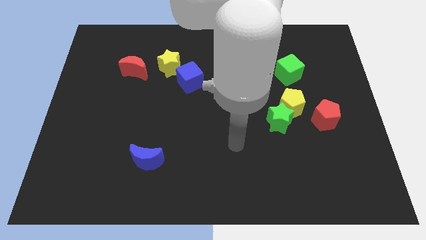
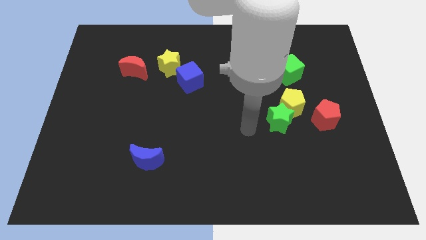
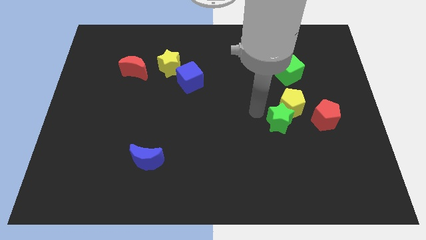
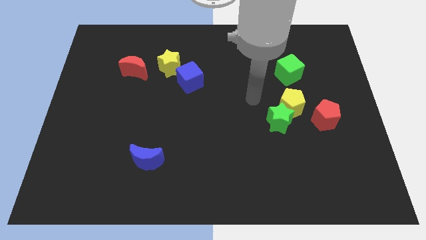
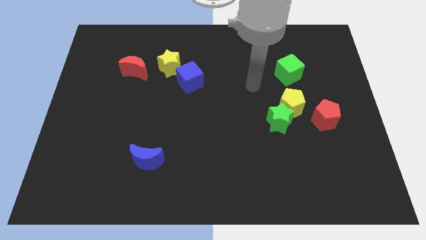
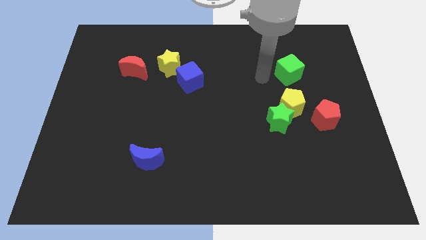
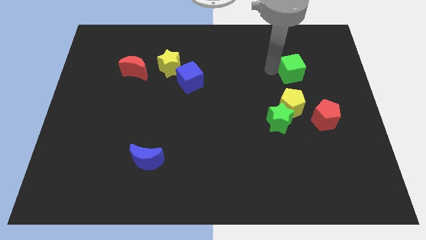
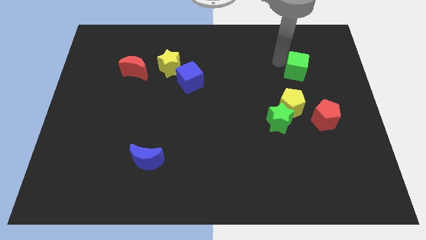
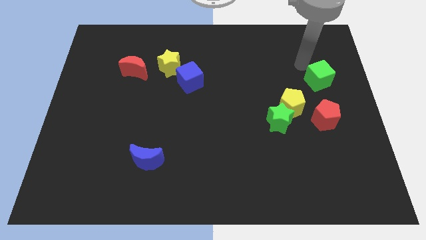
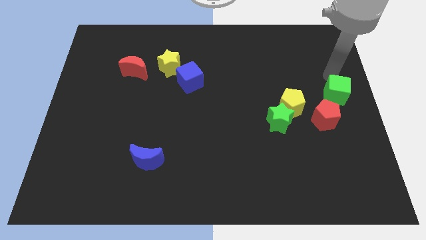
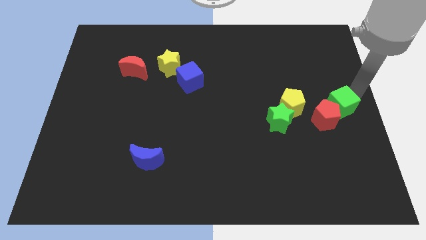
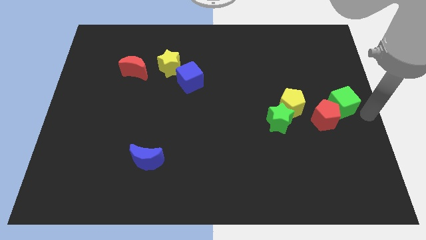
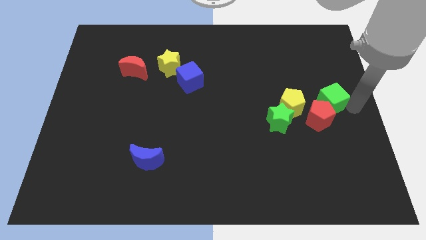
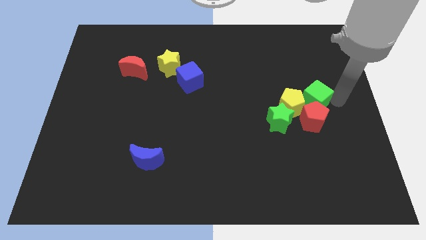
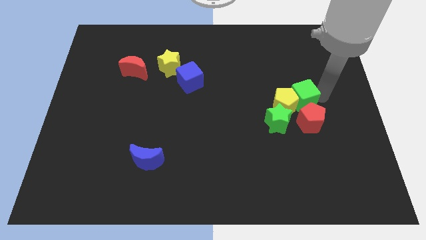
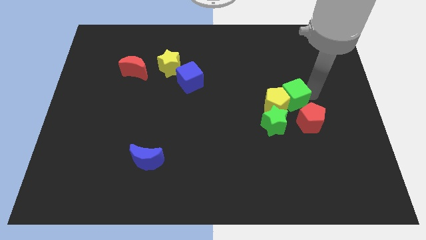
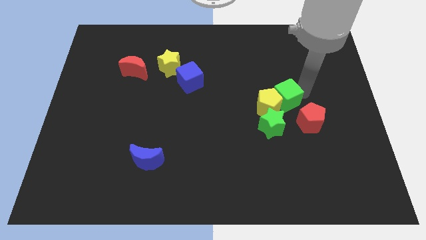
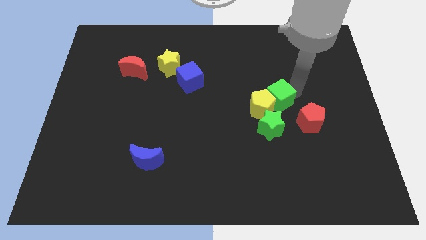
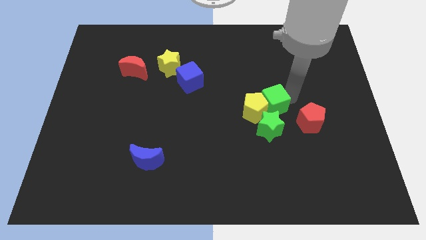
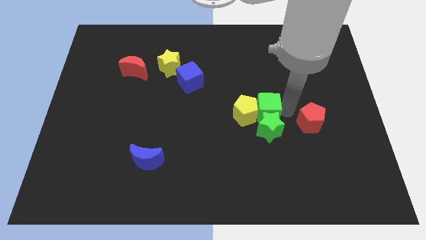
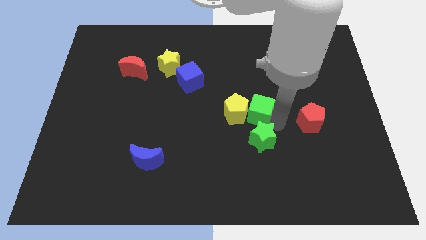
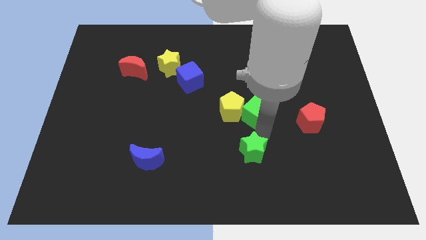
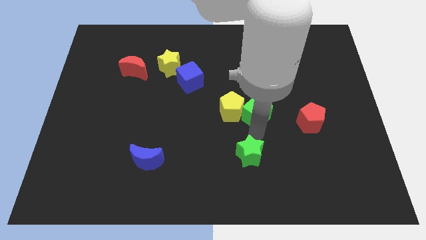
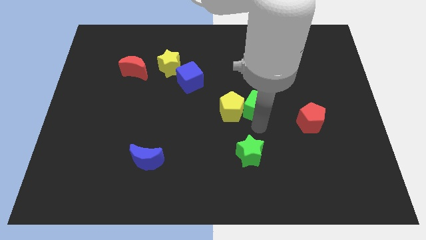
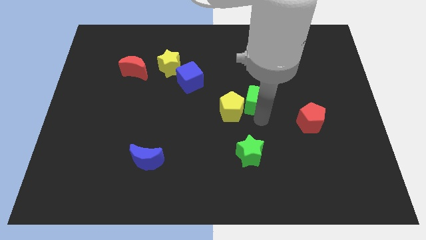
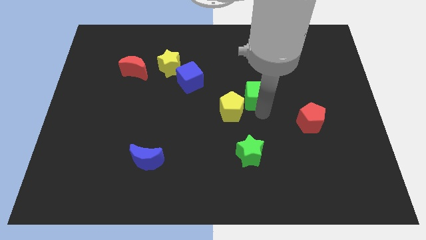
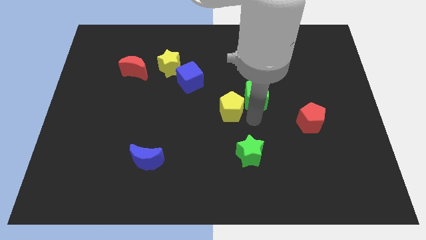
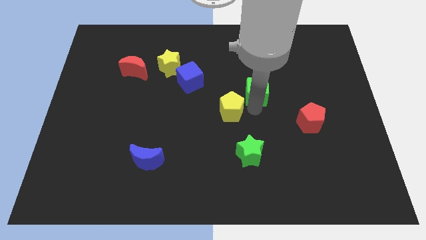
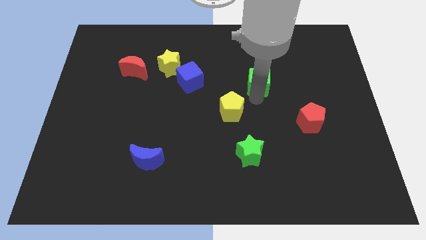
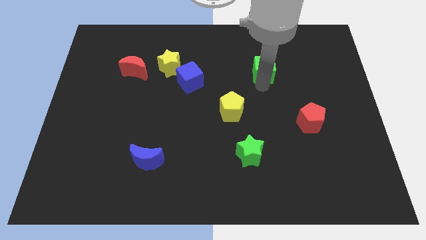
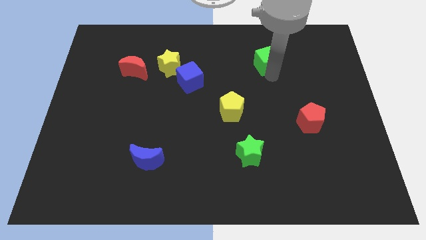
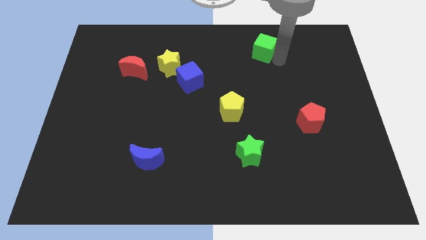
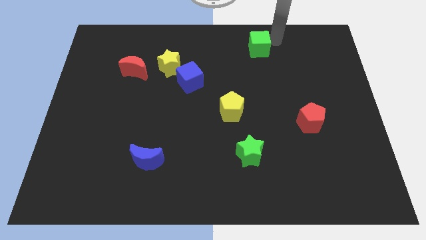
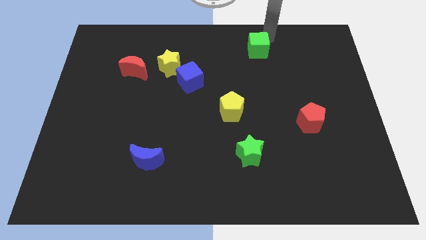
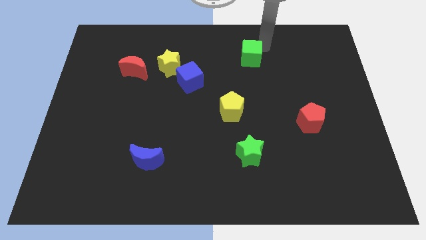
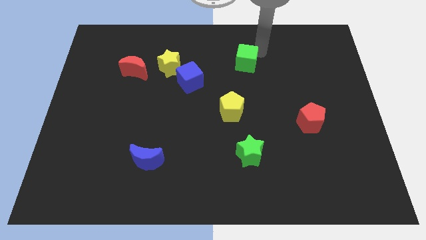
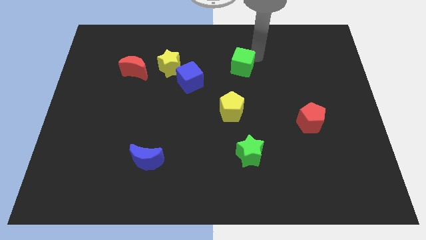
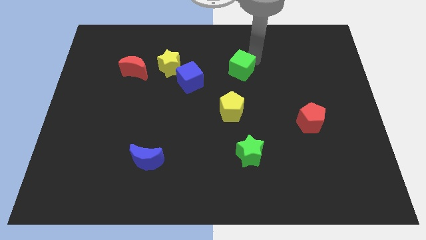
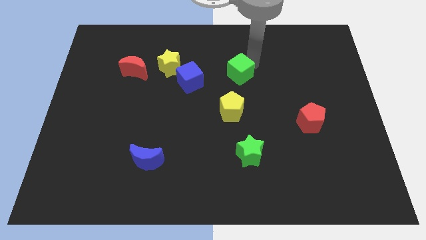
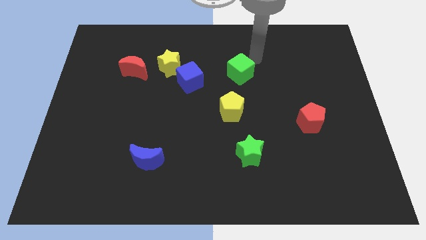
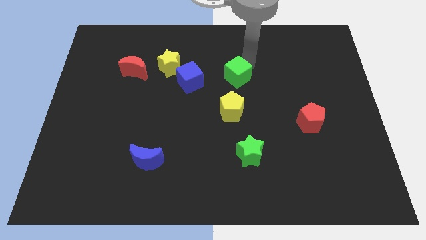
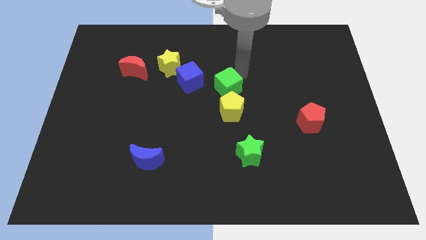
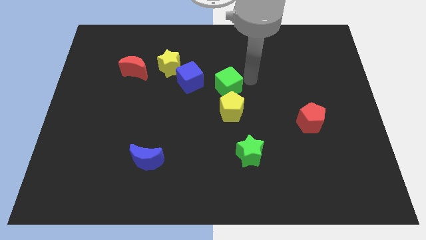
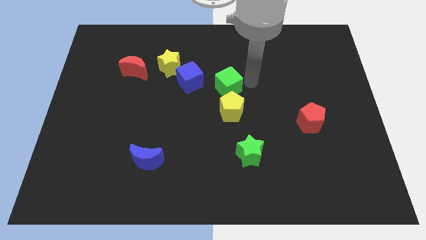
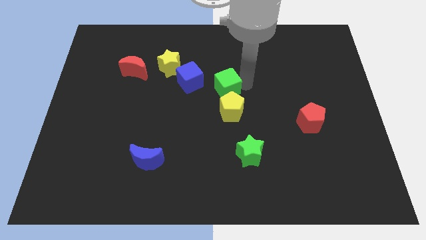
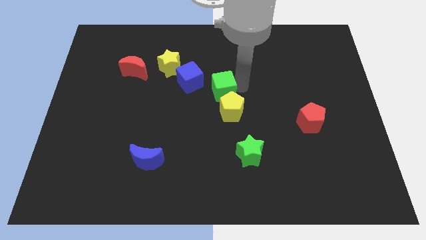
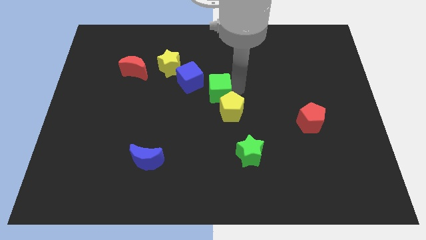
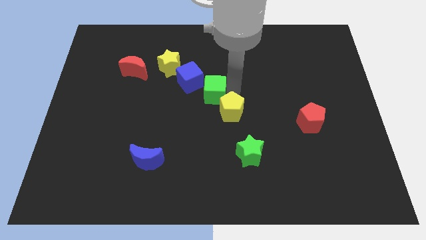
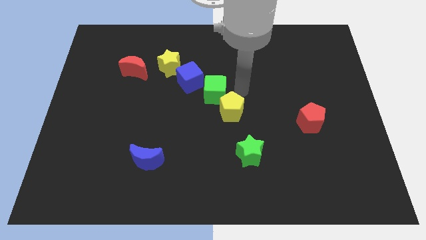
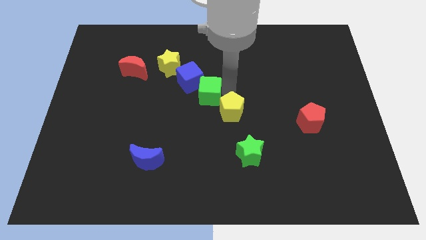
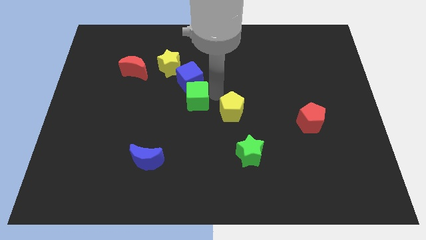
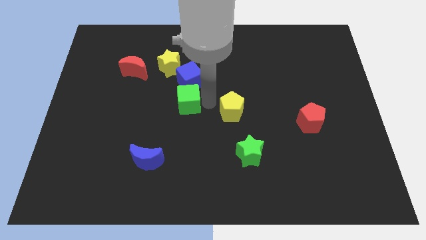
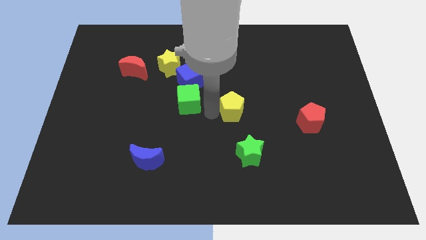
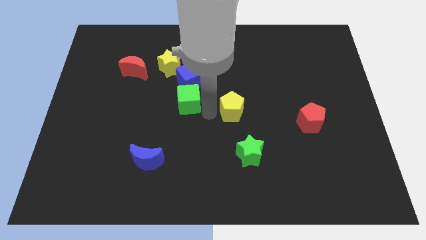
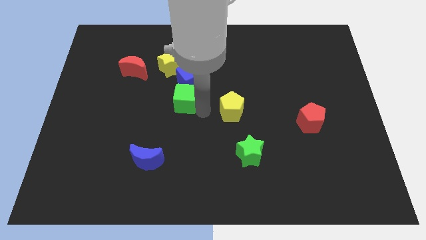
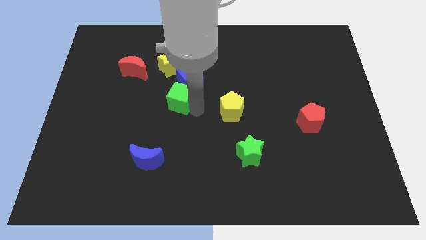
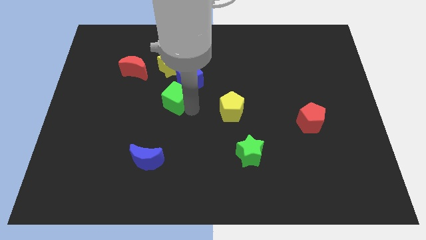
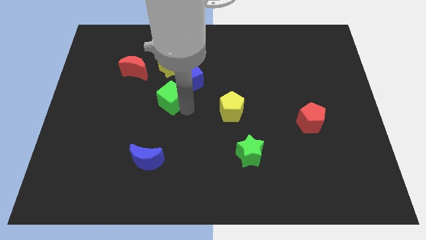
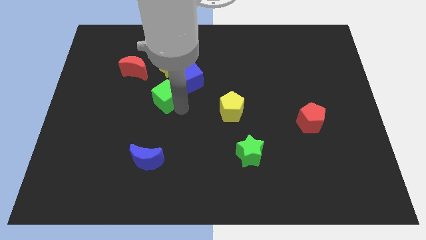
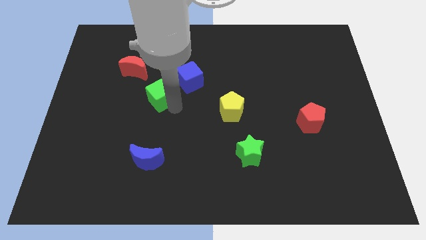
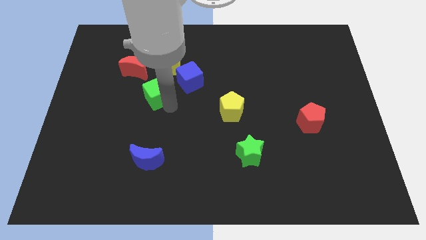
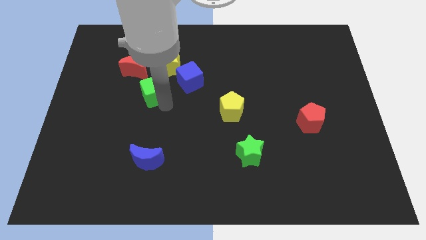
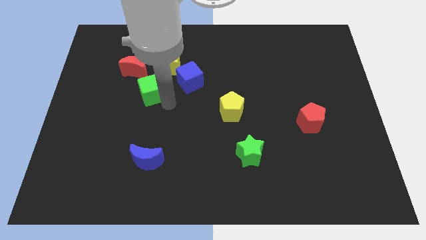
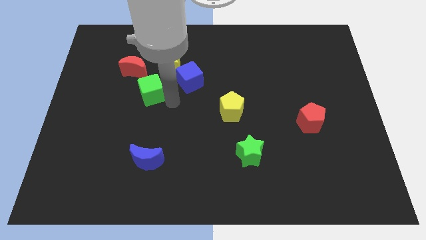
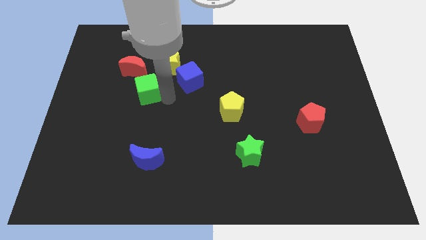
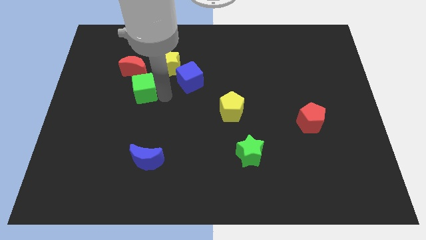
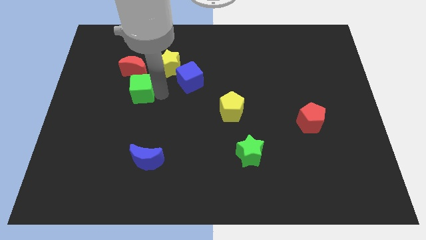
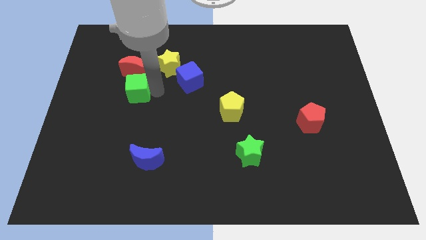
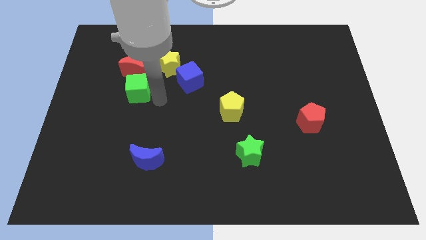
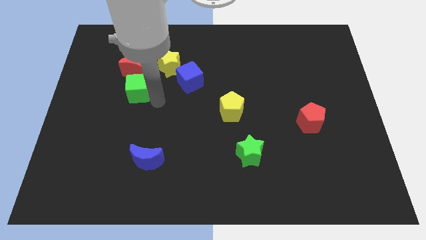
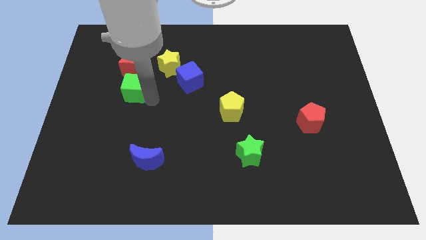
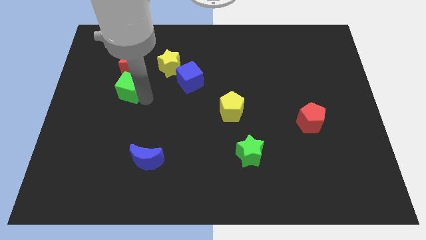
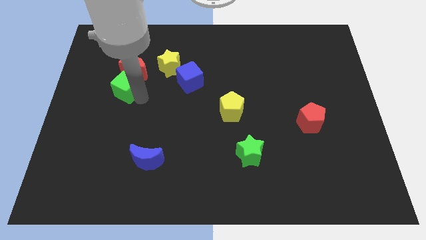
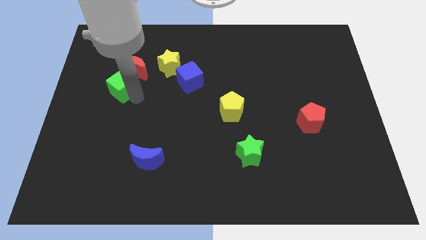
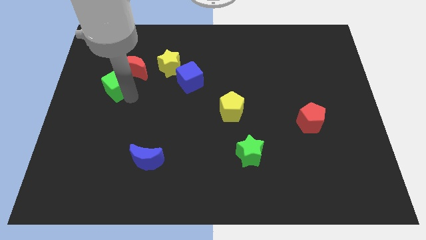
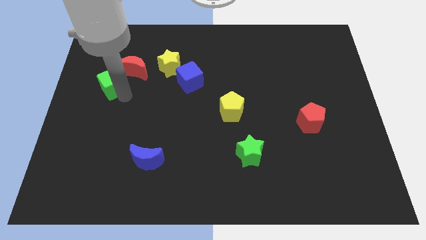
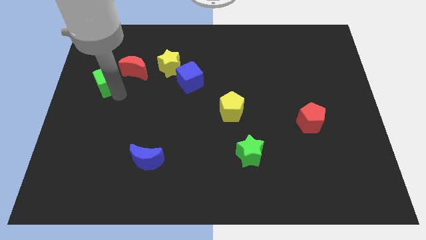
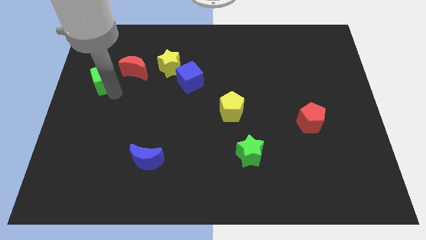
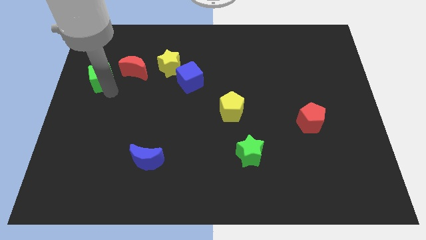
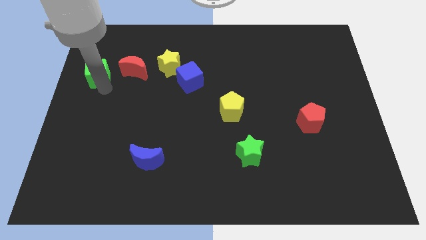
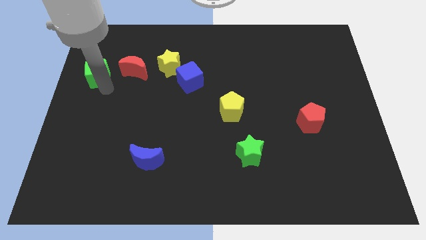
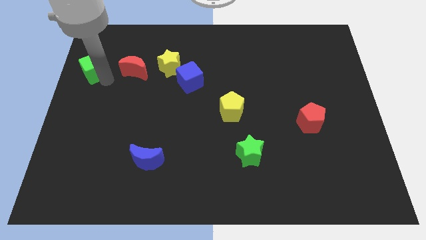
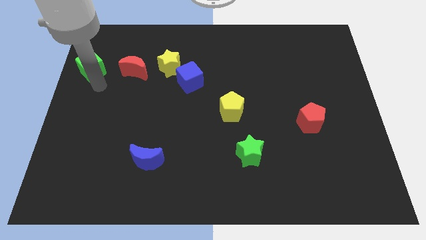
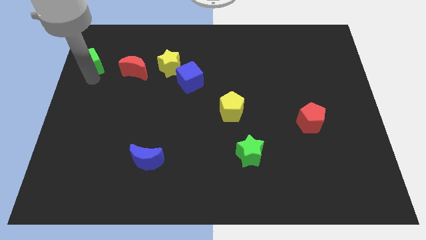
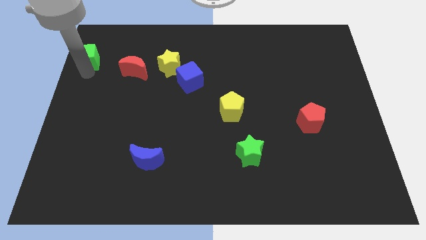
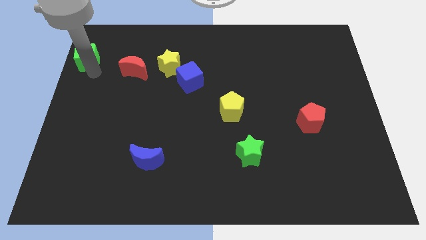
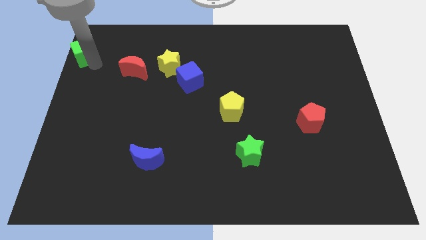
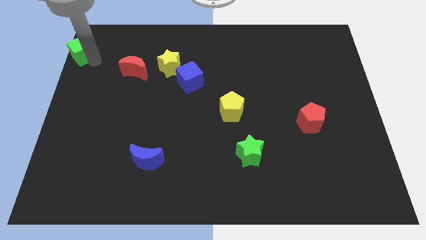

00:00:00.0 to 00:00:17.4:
slide the green cube to the top left

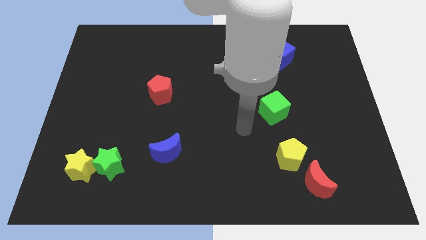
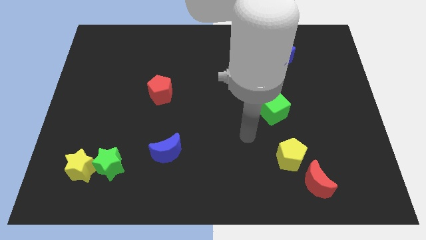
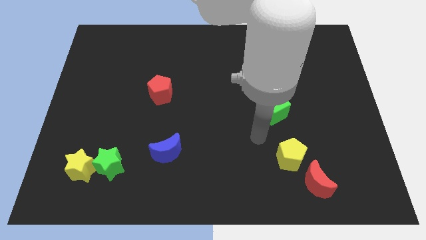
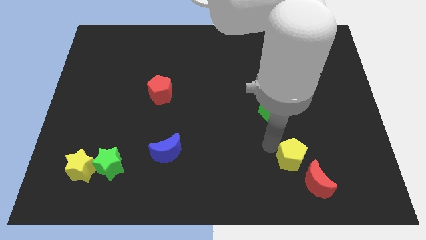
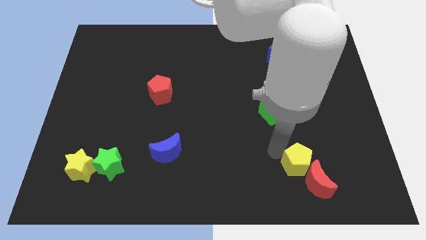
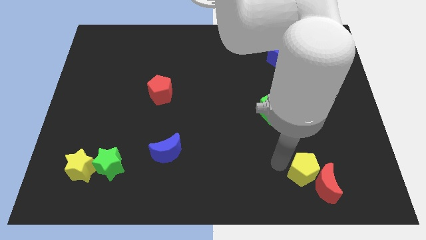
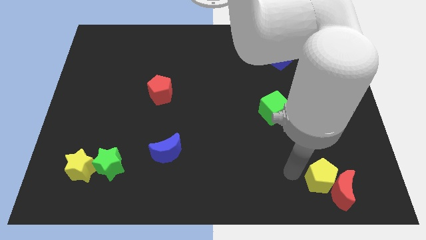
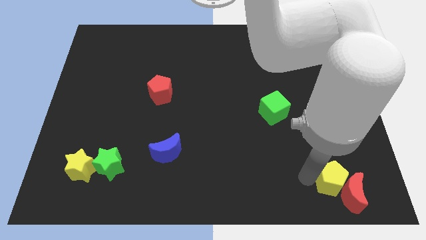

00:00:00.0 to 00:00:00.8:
put the red moon to the bottom right of the board
